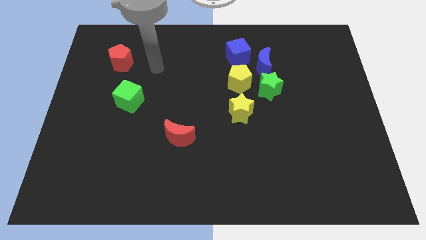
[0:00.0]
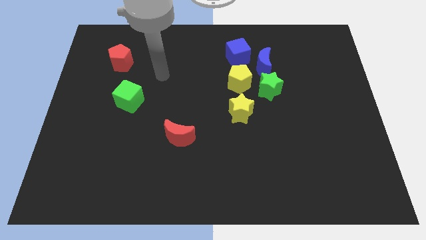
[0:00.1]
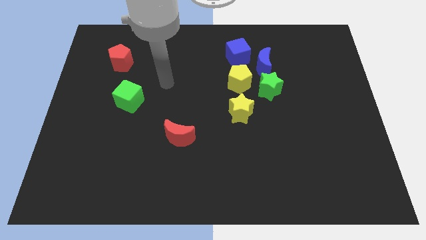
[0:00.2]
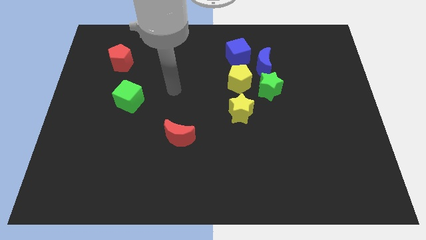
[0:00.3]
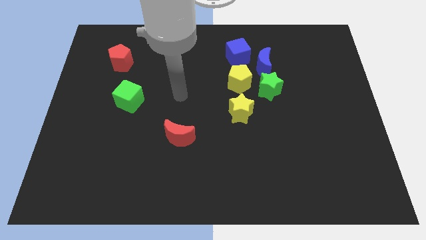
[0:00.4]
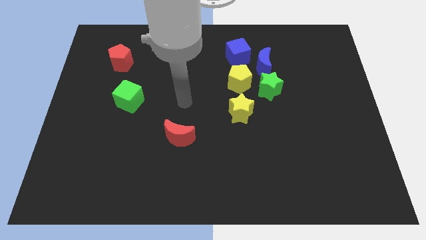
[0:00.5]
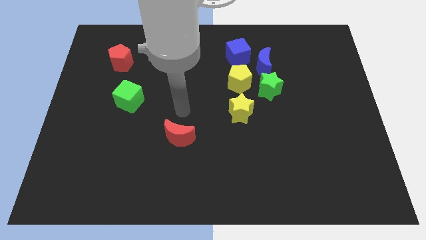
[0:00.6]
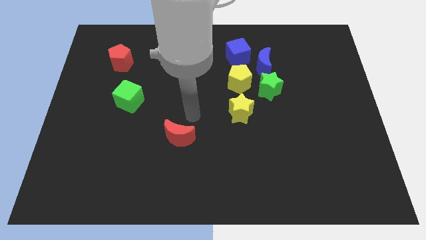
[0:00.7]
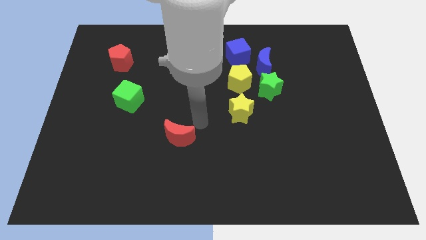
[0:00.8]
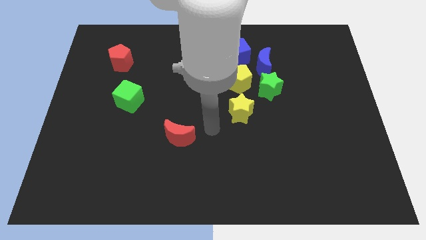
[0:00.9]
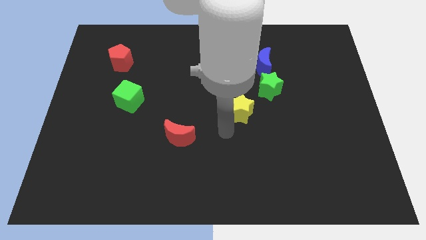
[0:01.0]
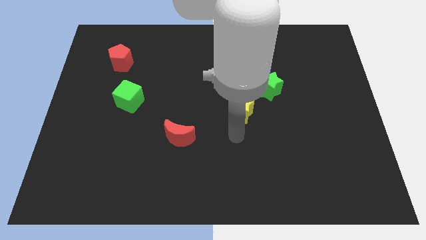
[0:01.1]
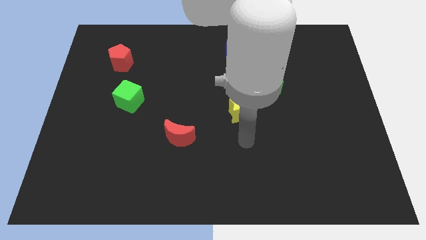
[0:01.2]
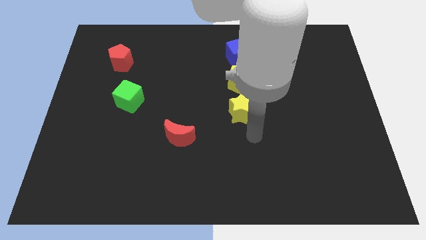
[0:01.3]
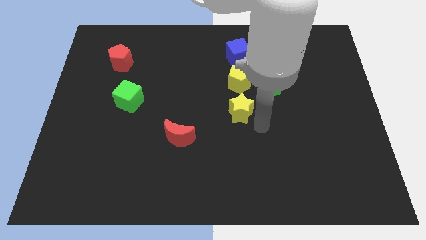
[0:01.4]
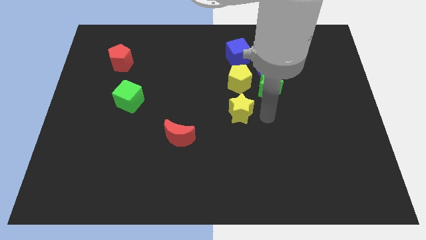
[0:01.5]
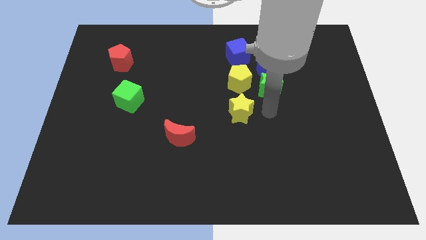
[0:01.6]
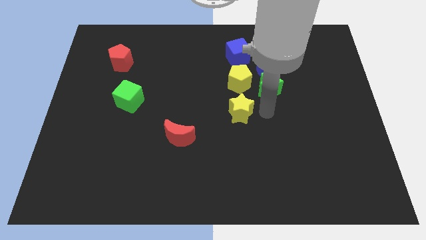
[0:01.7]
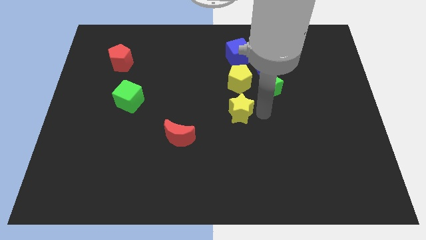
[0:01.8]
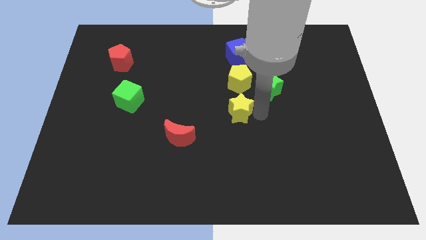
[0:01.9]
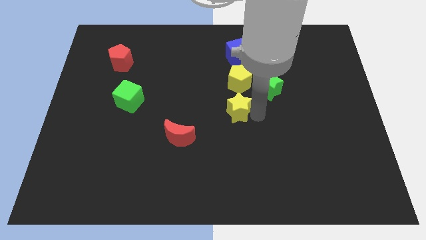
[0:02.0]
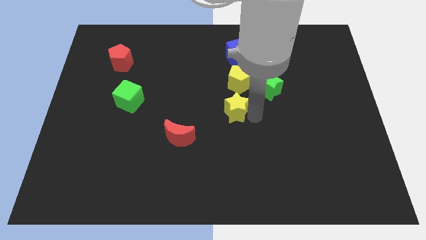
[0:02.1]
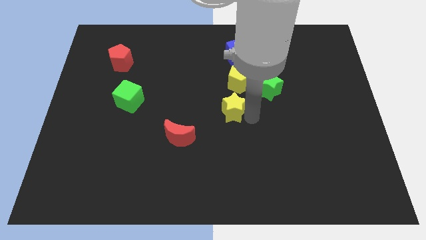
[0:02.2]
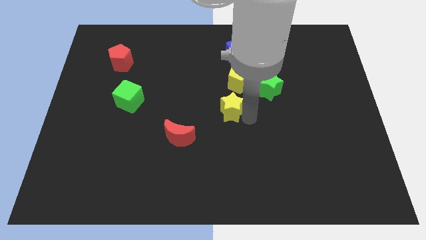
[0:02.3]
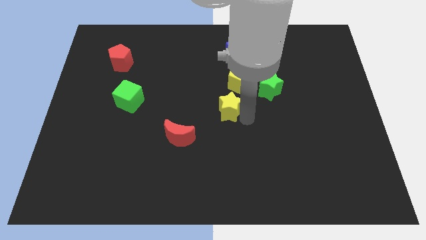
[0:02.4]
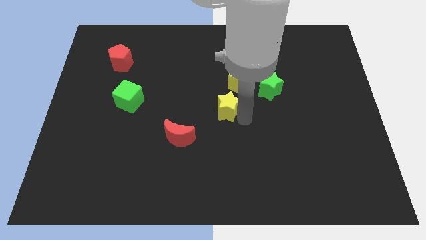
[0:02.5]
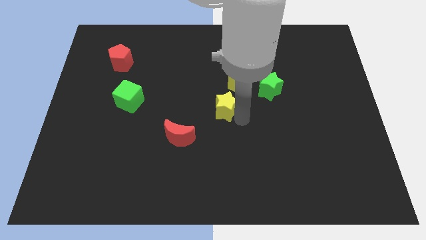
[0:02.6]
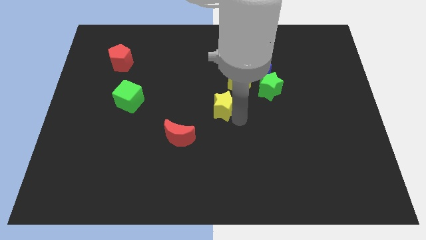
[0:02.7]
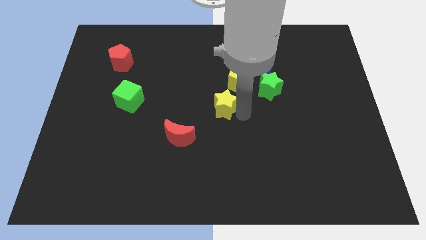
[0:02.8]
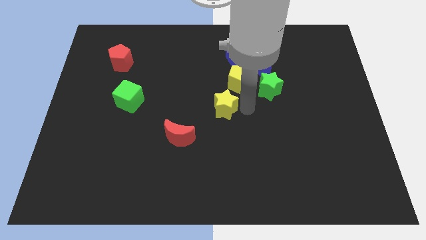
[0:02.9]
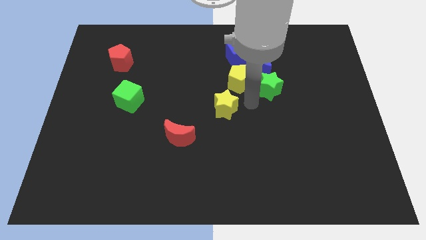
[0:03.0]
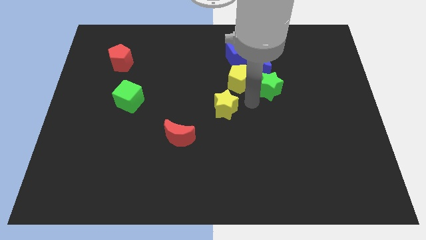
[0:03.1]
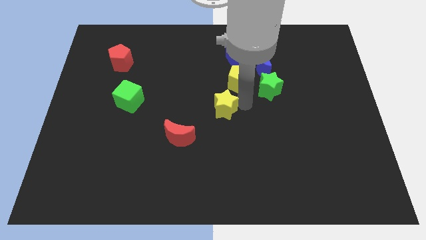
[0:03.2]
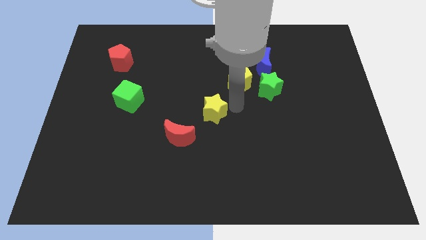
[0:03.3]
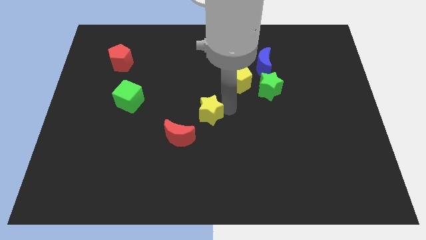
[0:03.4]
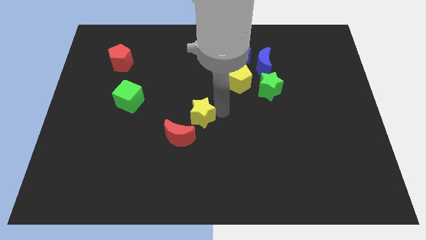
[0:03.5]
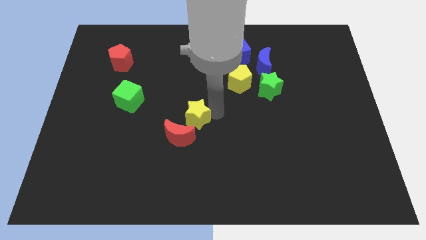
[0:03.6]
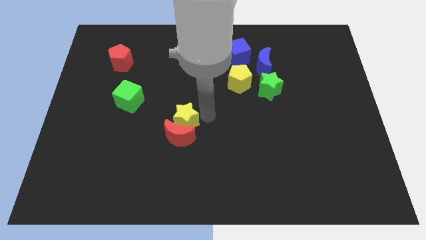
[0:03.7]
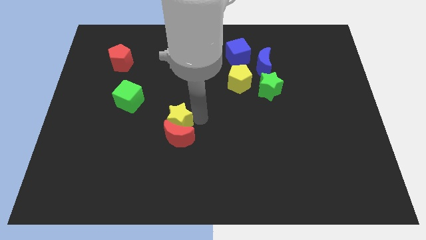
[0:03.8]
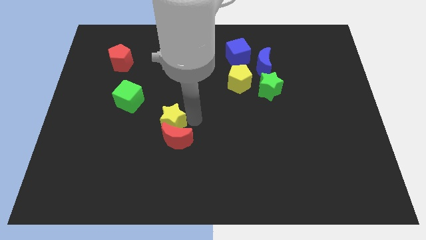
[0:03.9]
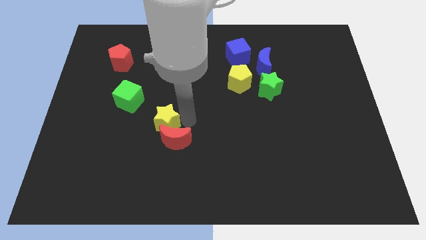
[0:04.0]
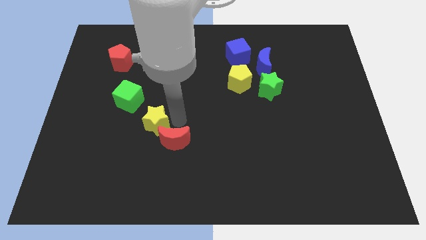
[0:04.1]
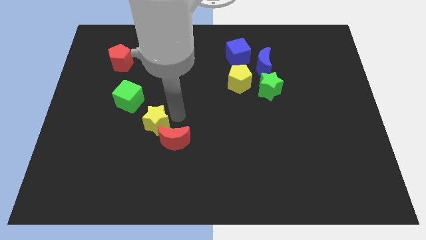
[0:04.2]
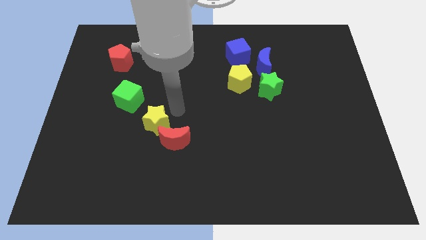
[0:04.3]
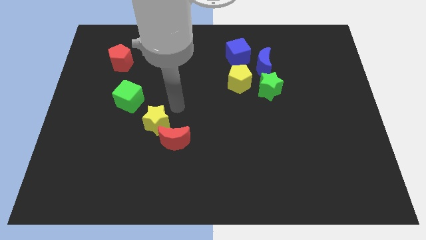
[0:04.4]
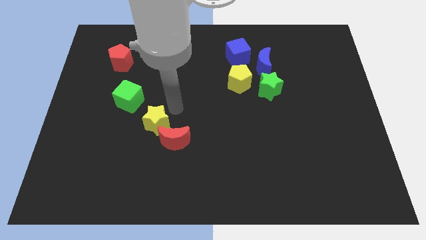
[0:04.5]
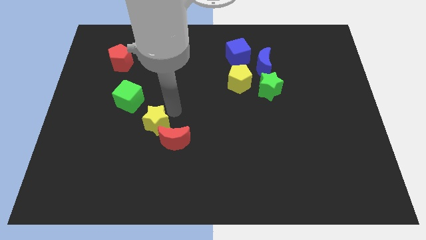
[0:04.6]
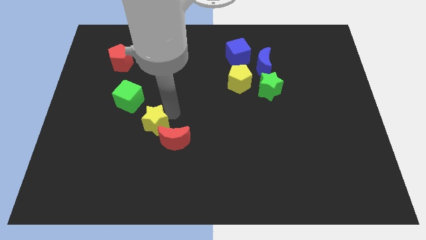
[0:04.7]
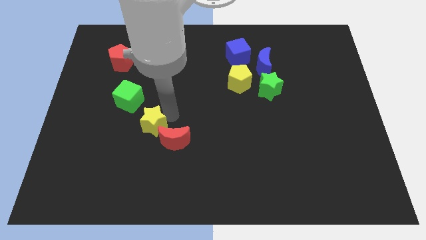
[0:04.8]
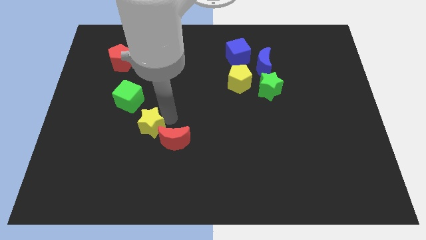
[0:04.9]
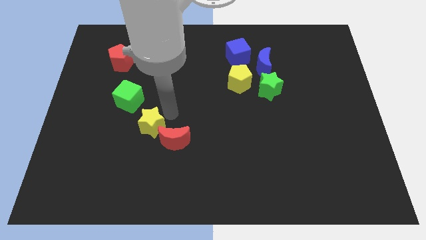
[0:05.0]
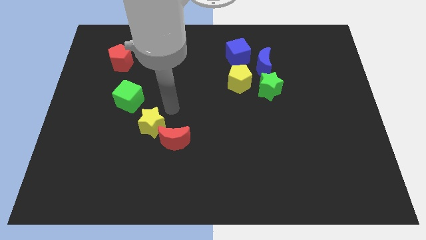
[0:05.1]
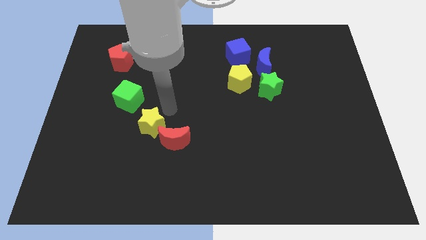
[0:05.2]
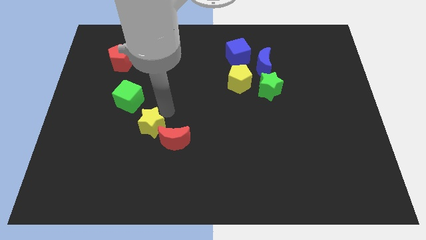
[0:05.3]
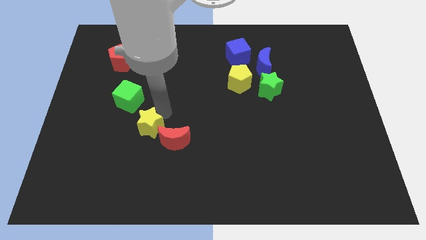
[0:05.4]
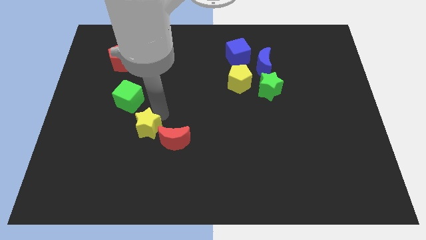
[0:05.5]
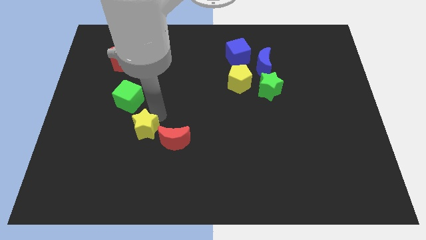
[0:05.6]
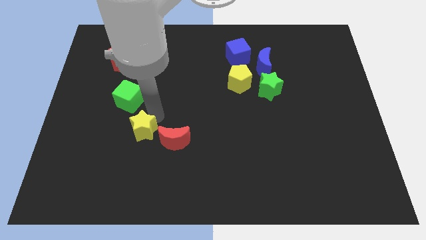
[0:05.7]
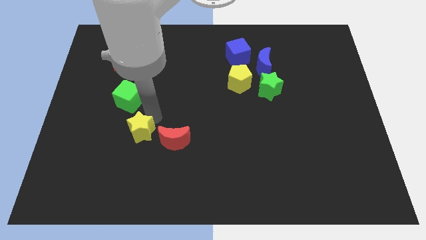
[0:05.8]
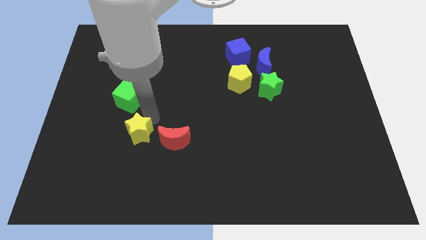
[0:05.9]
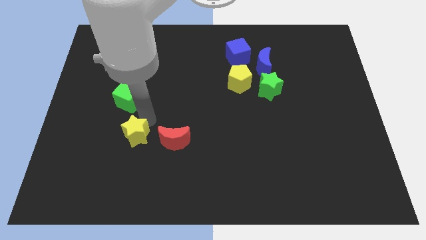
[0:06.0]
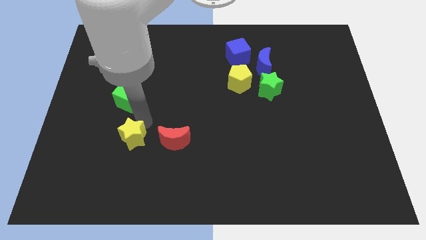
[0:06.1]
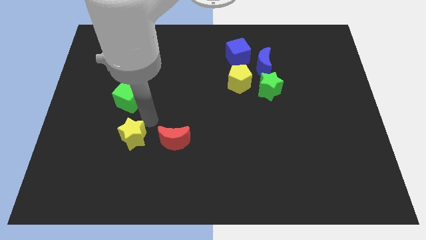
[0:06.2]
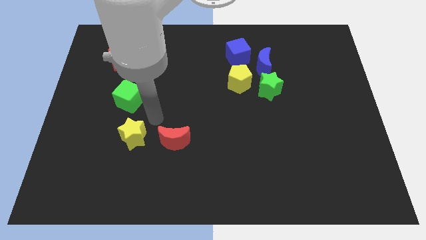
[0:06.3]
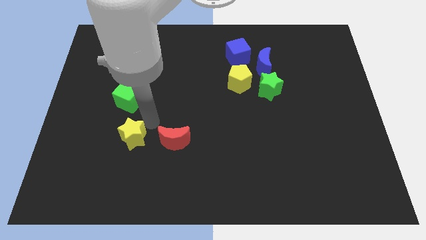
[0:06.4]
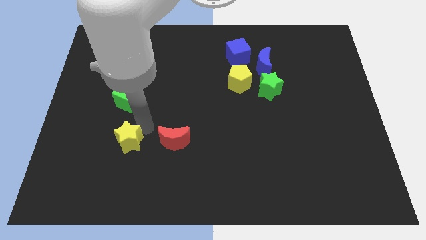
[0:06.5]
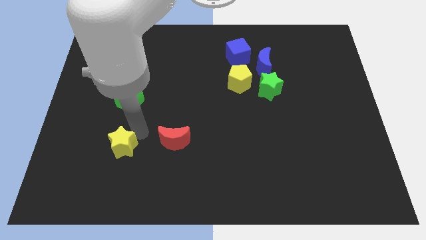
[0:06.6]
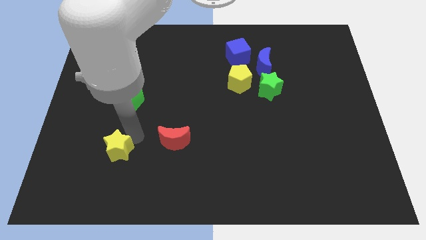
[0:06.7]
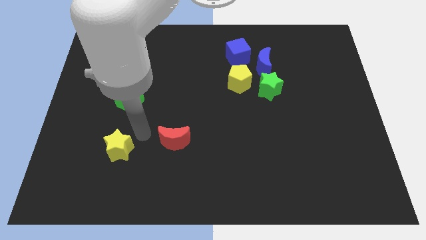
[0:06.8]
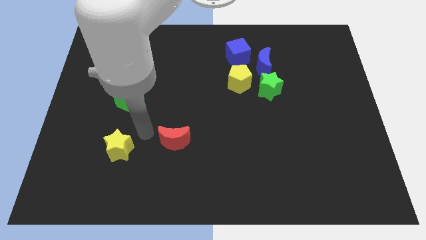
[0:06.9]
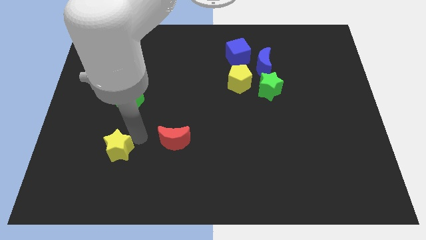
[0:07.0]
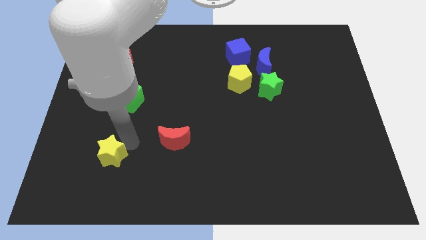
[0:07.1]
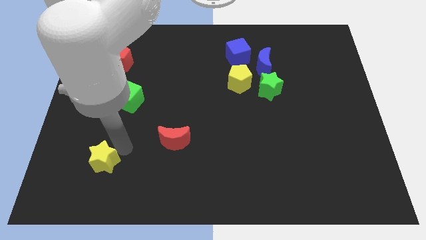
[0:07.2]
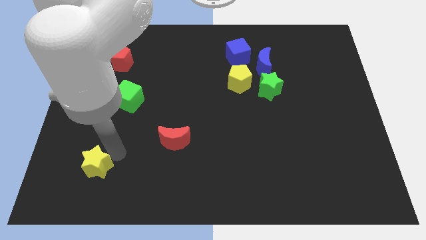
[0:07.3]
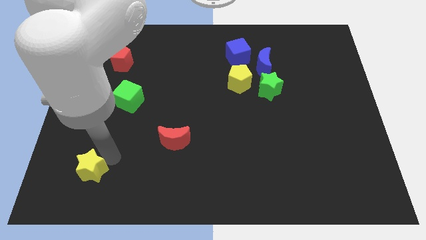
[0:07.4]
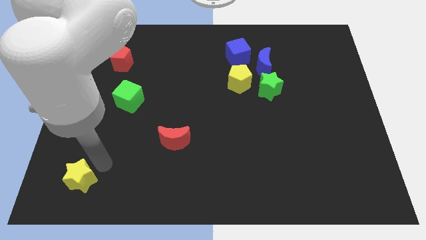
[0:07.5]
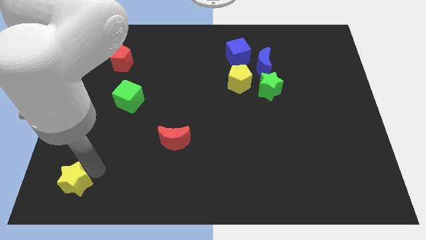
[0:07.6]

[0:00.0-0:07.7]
move the yellow star to the bottom left
